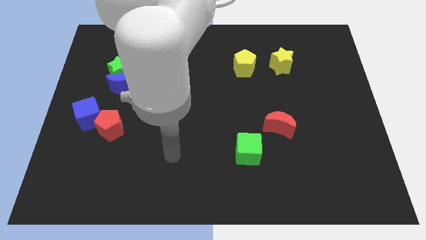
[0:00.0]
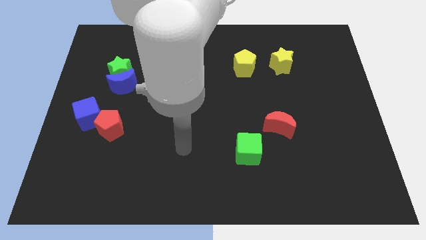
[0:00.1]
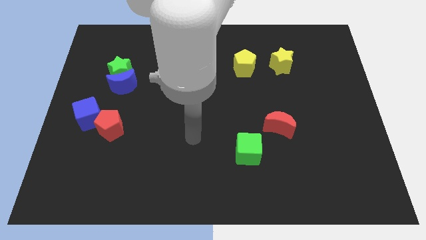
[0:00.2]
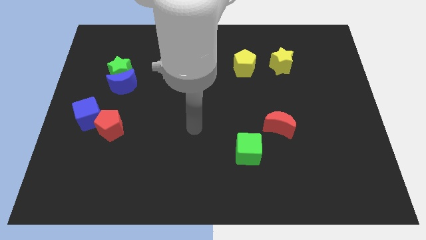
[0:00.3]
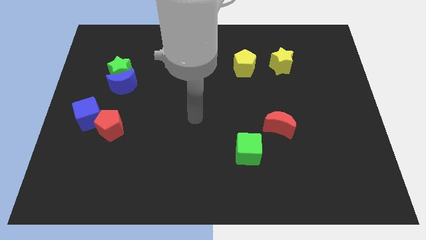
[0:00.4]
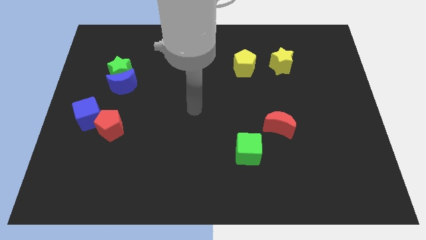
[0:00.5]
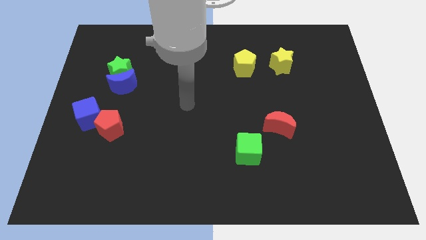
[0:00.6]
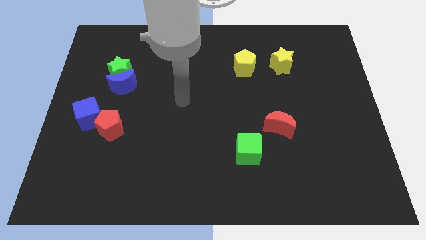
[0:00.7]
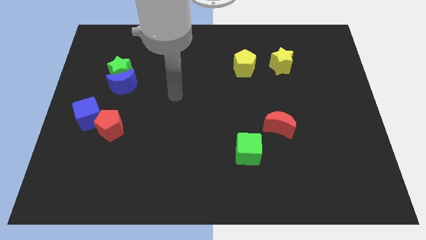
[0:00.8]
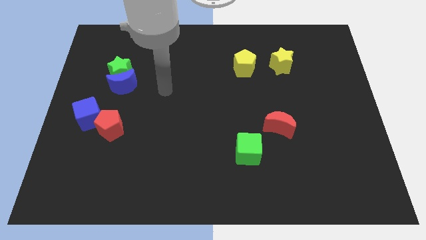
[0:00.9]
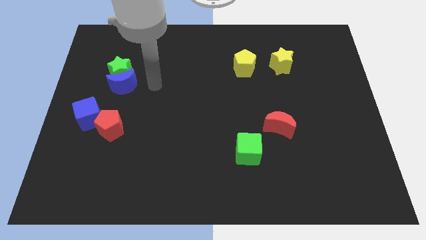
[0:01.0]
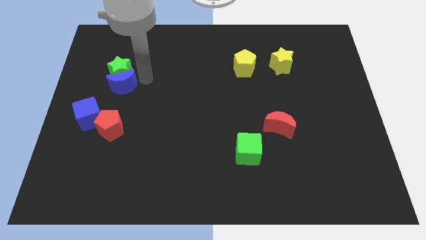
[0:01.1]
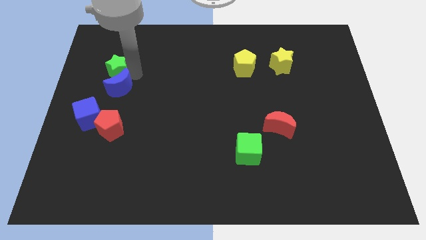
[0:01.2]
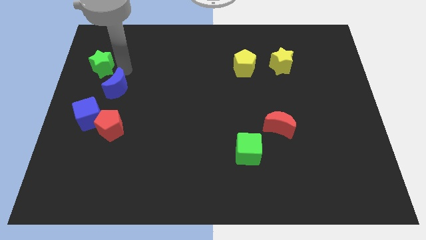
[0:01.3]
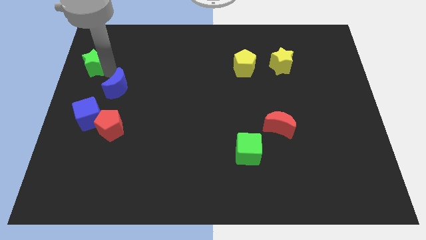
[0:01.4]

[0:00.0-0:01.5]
separate the blue moon from the green star

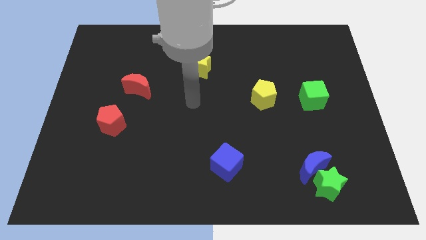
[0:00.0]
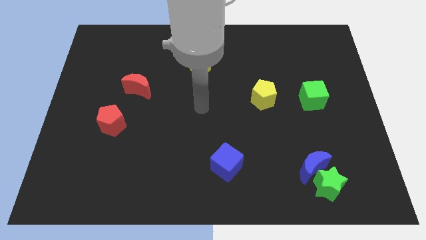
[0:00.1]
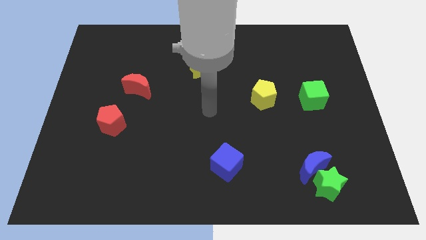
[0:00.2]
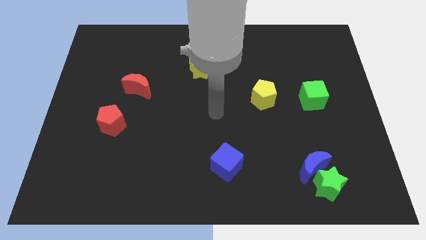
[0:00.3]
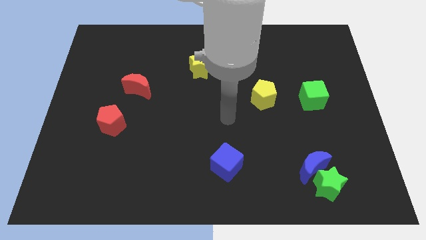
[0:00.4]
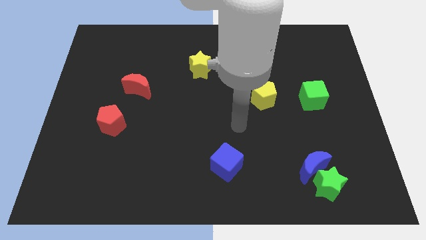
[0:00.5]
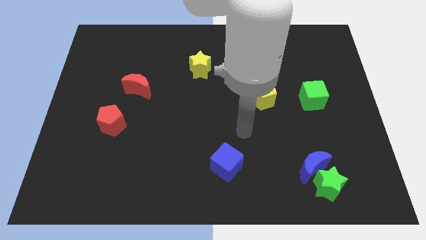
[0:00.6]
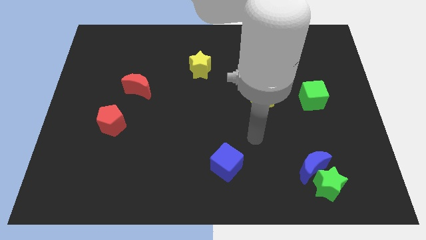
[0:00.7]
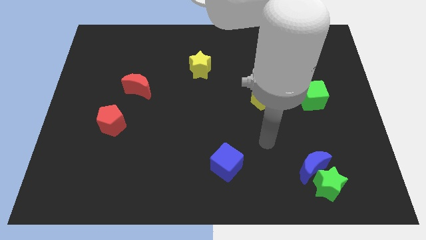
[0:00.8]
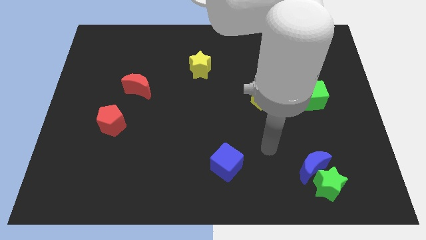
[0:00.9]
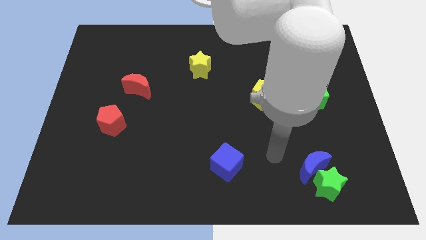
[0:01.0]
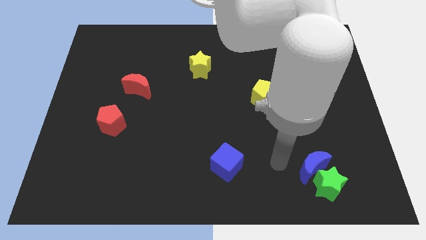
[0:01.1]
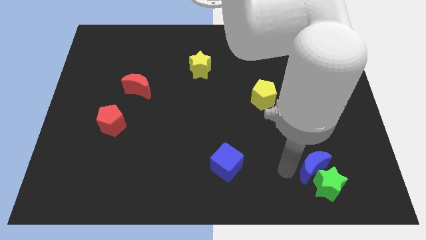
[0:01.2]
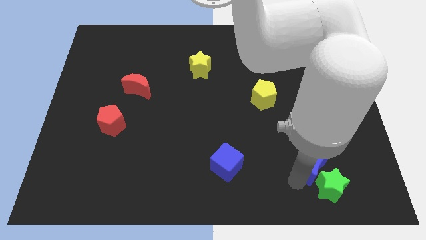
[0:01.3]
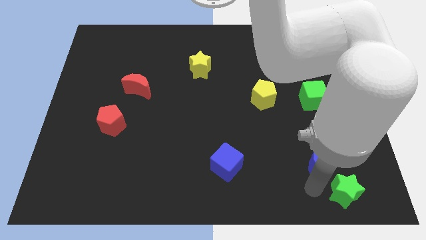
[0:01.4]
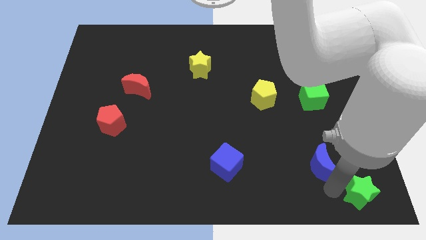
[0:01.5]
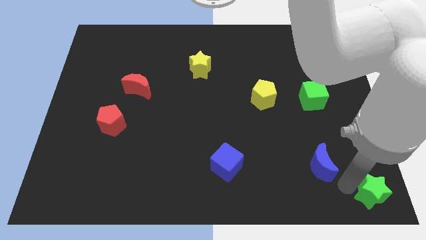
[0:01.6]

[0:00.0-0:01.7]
pull the blue moon apart from the green star

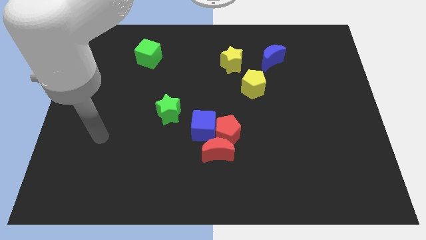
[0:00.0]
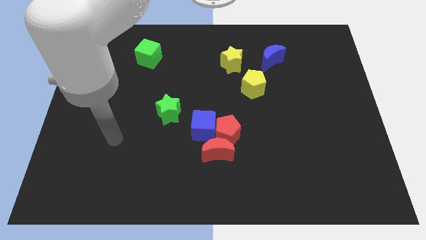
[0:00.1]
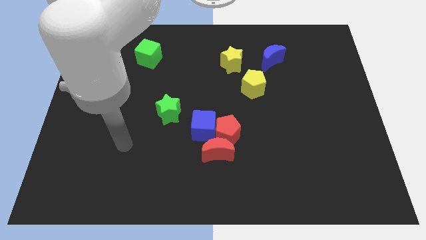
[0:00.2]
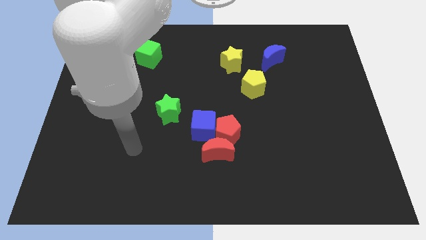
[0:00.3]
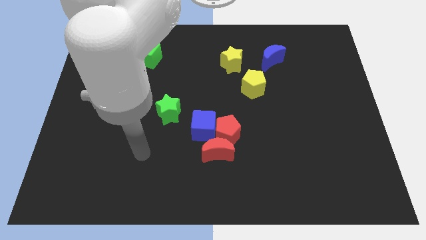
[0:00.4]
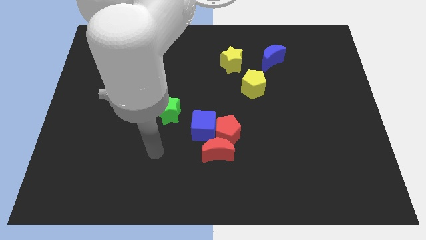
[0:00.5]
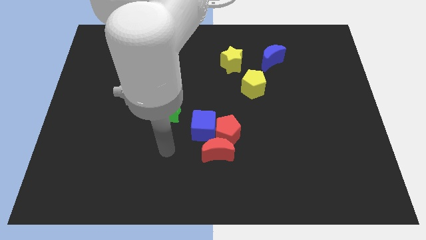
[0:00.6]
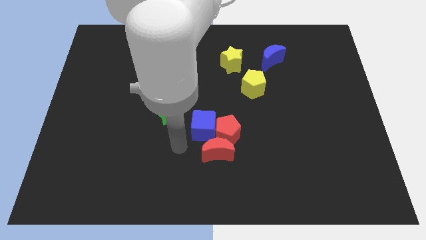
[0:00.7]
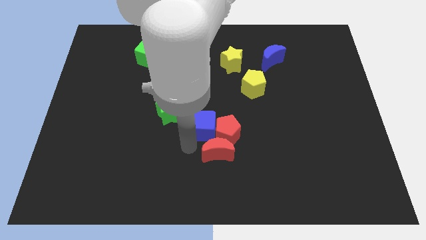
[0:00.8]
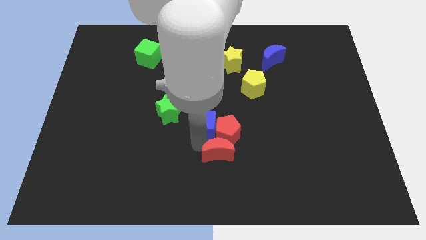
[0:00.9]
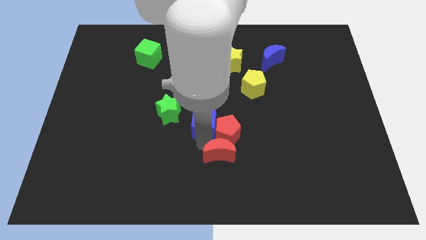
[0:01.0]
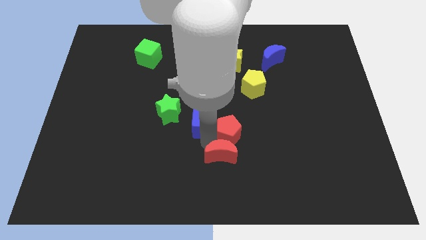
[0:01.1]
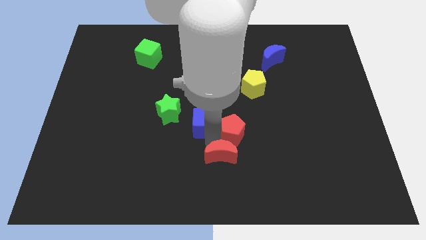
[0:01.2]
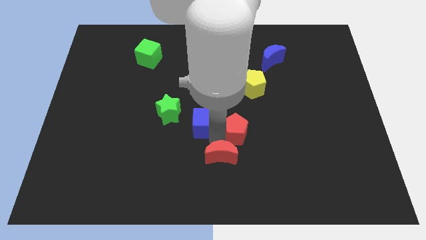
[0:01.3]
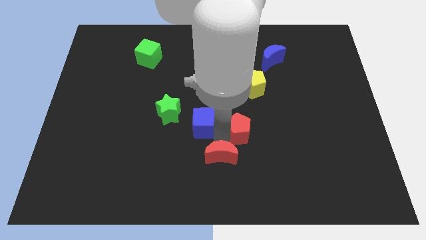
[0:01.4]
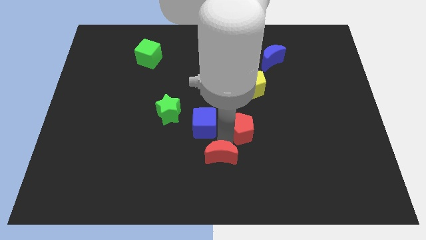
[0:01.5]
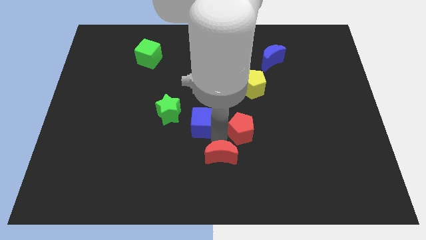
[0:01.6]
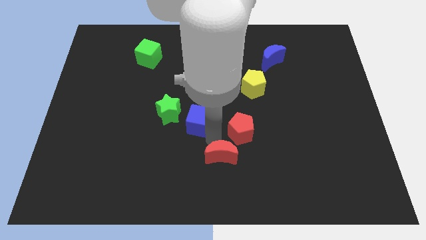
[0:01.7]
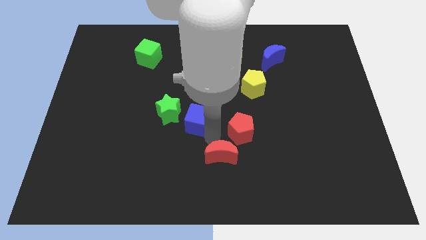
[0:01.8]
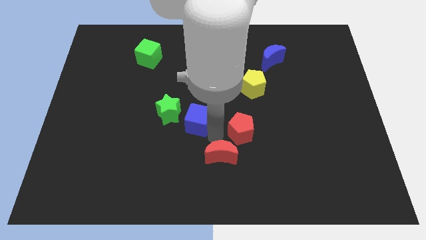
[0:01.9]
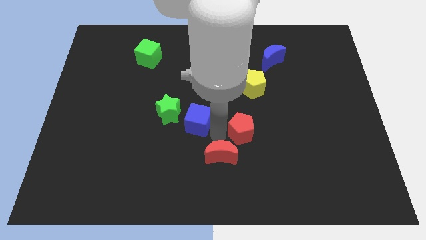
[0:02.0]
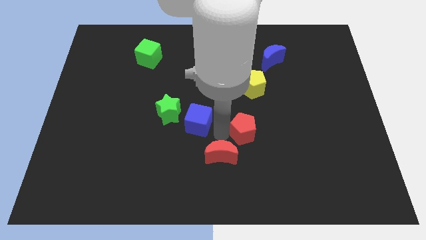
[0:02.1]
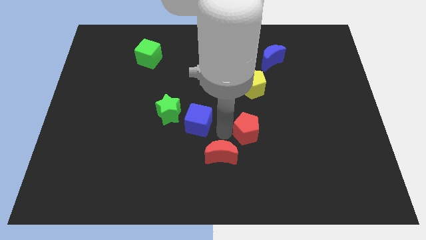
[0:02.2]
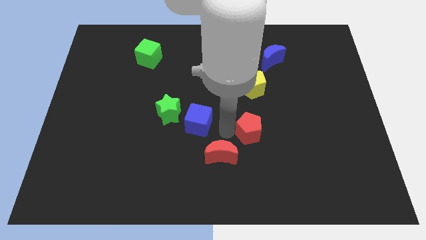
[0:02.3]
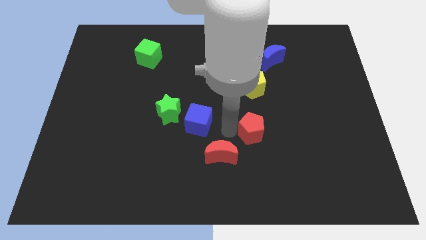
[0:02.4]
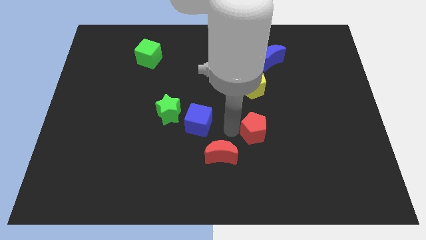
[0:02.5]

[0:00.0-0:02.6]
move the red pentagon away from the red moon and blue cube

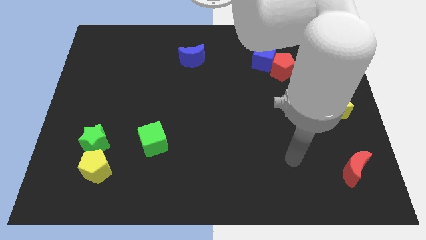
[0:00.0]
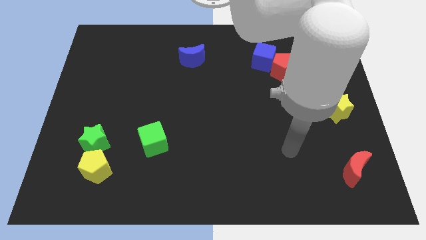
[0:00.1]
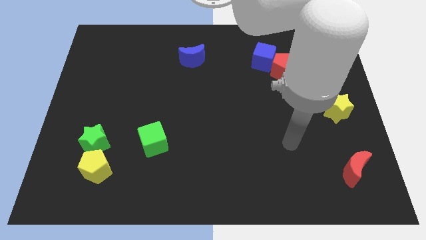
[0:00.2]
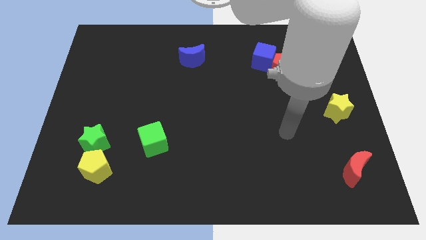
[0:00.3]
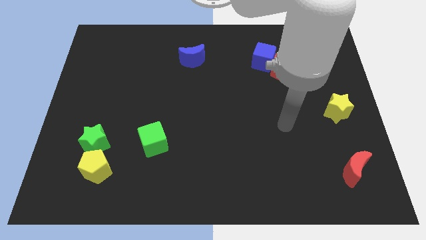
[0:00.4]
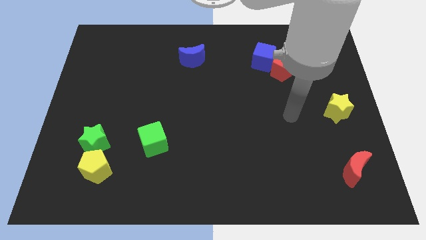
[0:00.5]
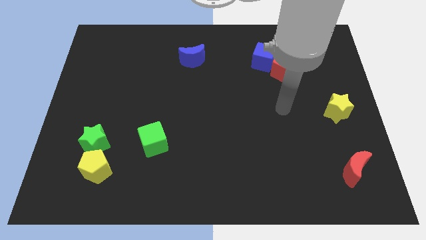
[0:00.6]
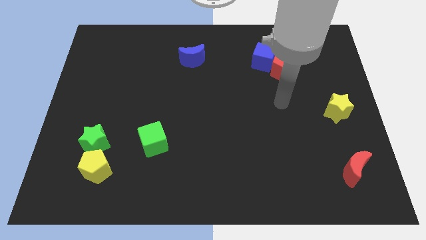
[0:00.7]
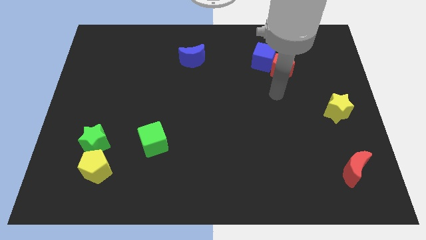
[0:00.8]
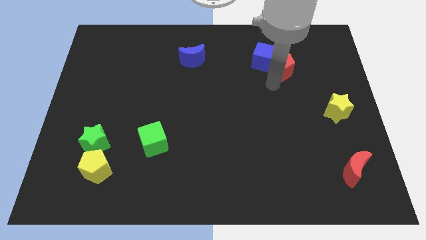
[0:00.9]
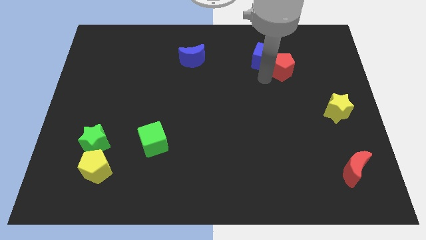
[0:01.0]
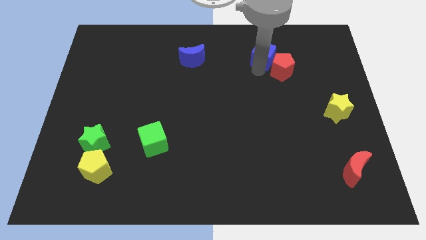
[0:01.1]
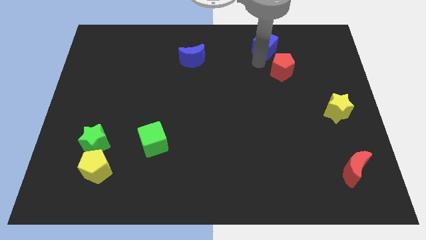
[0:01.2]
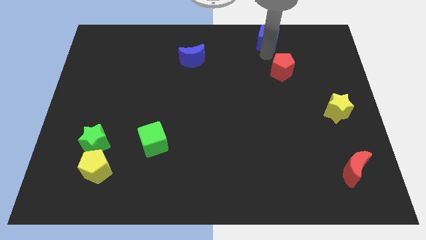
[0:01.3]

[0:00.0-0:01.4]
separate the red pentagon from the blue cube

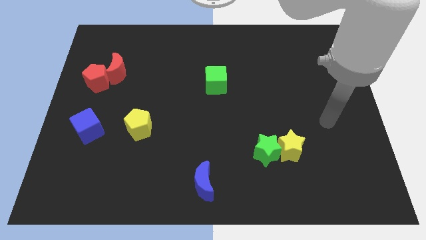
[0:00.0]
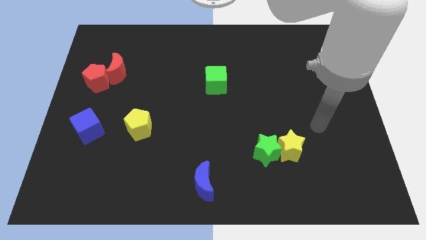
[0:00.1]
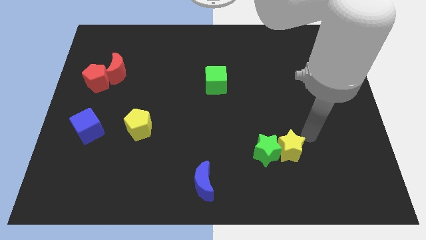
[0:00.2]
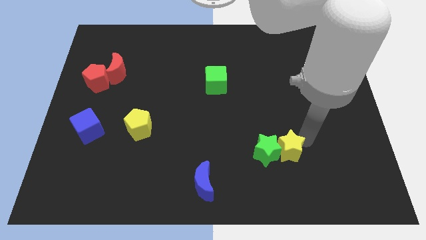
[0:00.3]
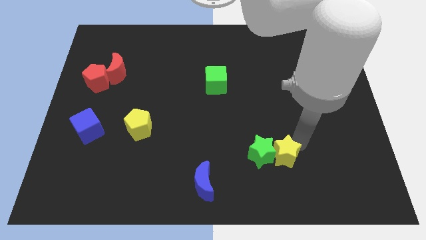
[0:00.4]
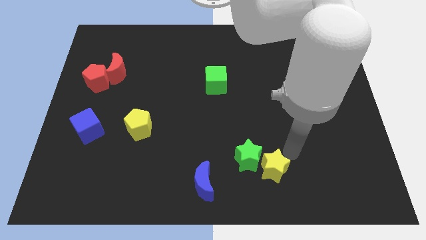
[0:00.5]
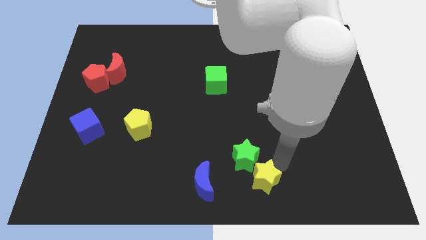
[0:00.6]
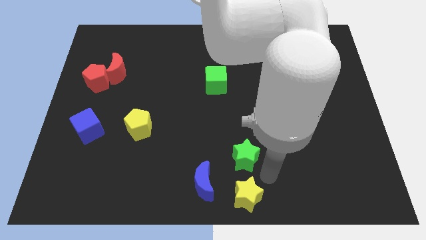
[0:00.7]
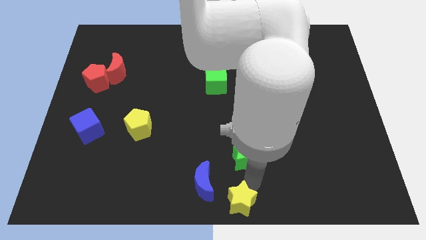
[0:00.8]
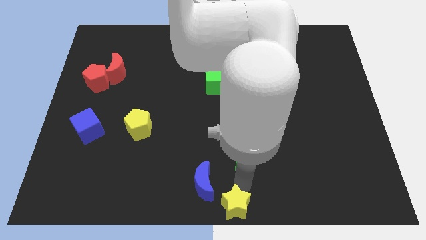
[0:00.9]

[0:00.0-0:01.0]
move the green star away from the yellow star

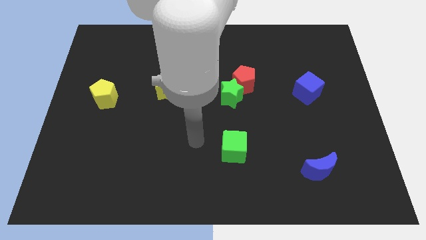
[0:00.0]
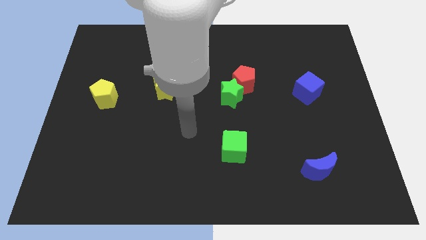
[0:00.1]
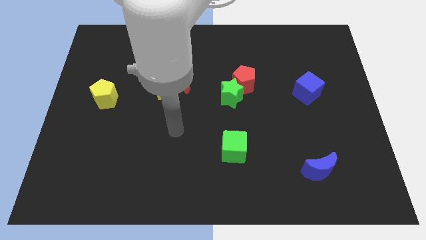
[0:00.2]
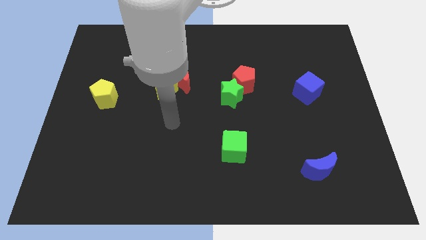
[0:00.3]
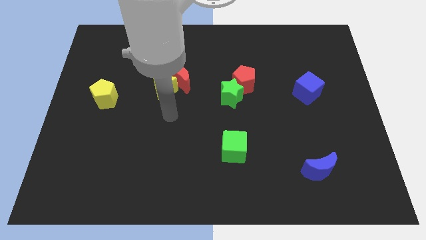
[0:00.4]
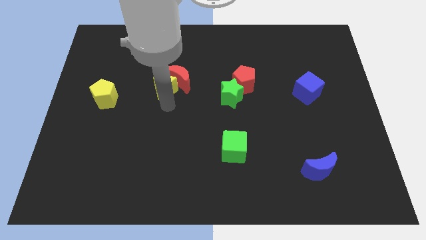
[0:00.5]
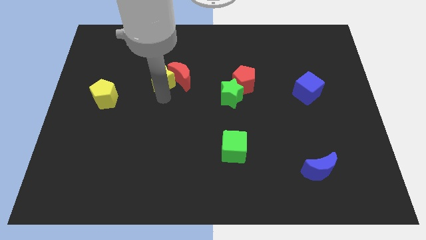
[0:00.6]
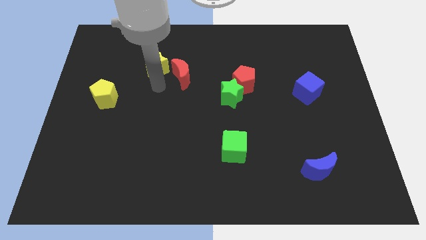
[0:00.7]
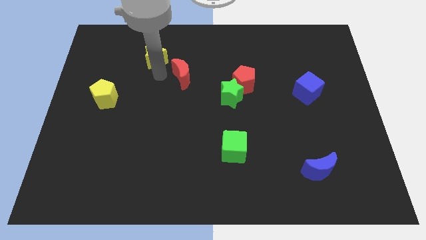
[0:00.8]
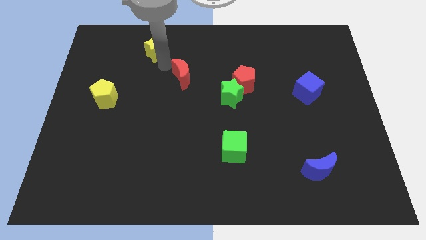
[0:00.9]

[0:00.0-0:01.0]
pull the red moon apart from the yellow star

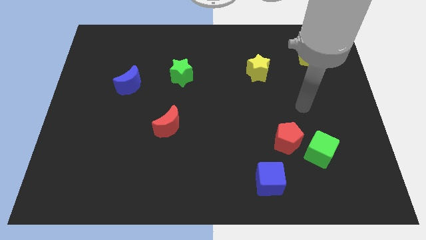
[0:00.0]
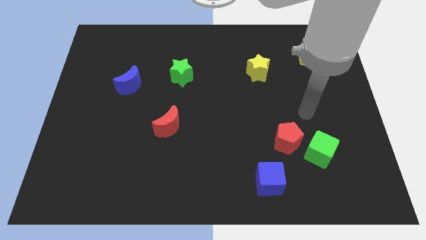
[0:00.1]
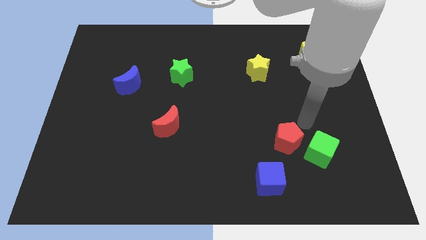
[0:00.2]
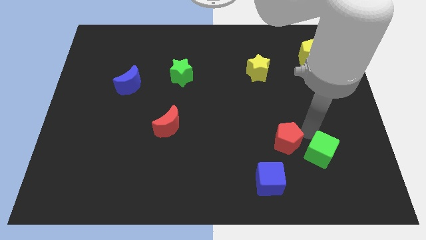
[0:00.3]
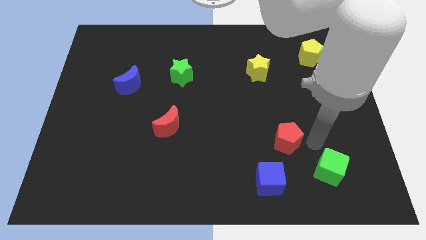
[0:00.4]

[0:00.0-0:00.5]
move the red pentagon away from the green cube
